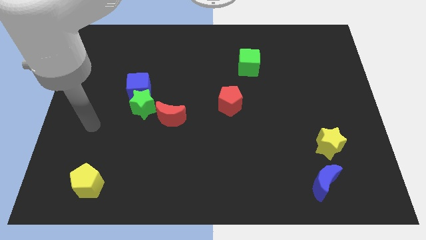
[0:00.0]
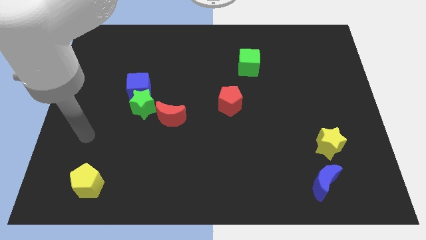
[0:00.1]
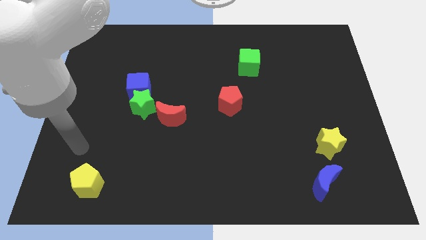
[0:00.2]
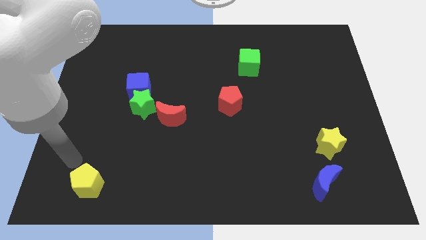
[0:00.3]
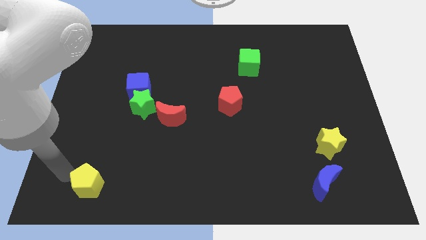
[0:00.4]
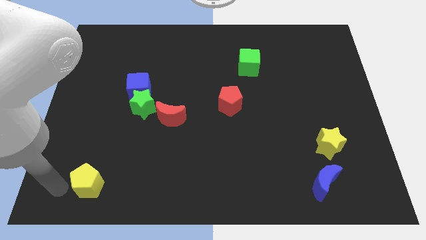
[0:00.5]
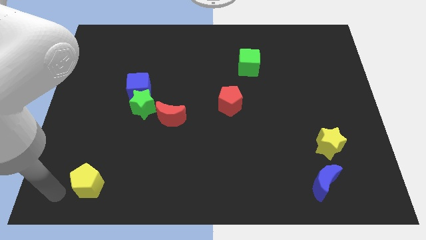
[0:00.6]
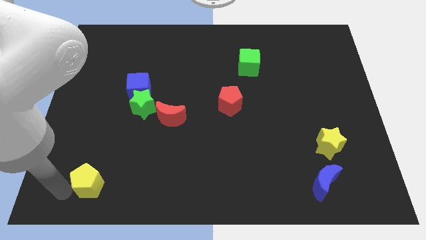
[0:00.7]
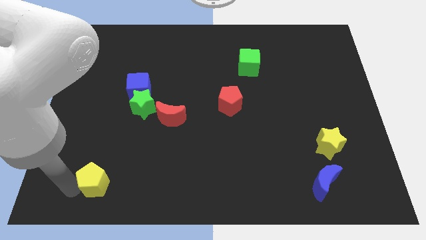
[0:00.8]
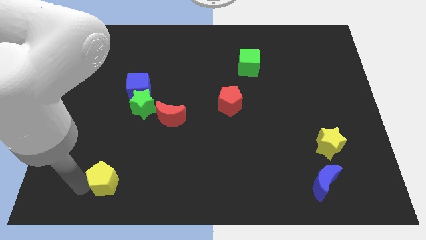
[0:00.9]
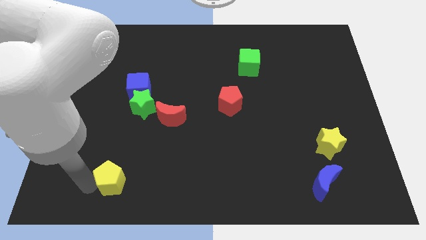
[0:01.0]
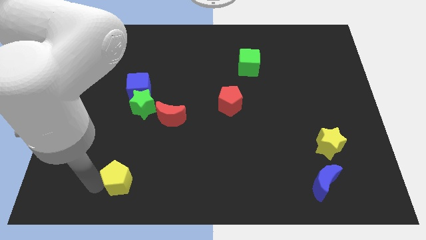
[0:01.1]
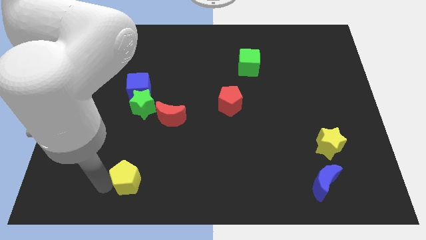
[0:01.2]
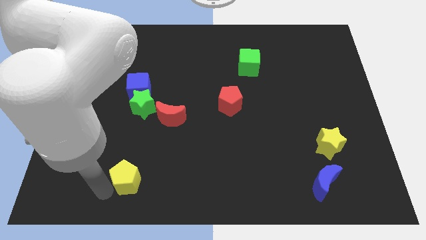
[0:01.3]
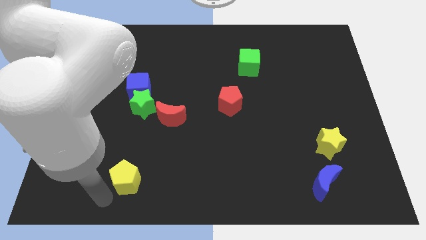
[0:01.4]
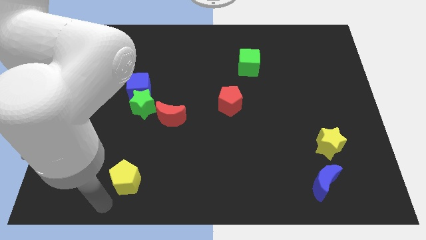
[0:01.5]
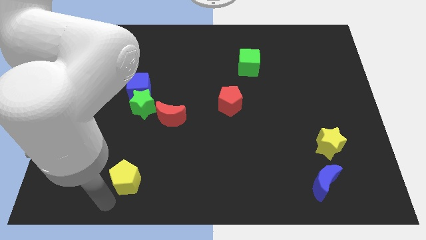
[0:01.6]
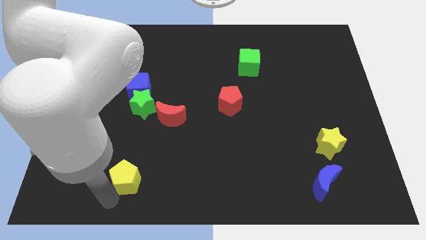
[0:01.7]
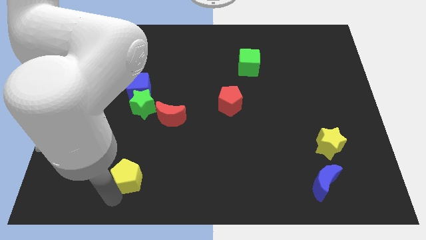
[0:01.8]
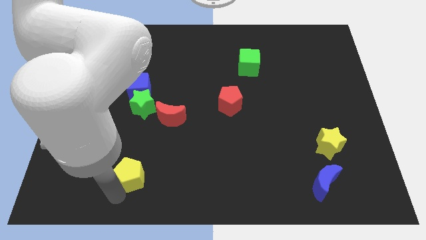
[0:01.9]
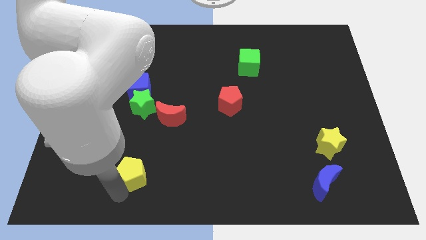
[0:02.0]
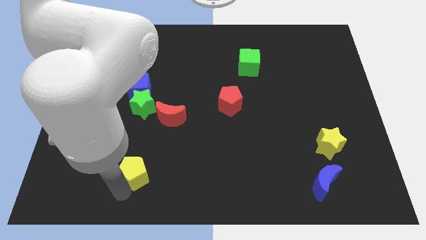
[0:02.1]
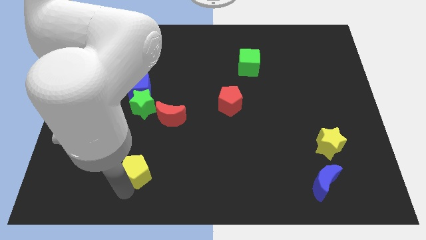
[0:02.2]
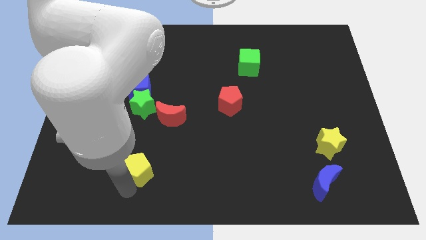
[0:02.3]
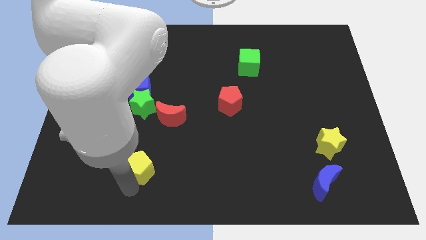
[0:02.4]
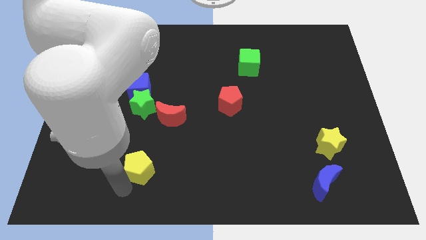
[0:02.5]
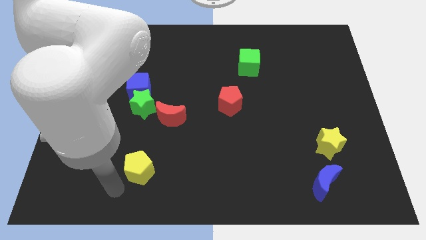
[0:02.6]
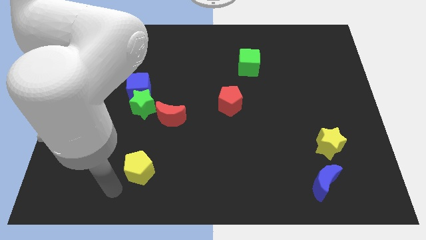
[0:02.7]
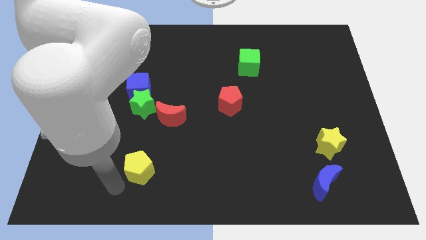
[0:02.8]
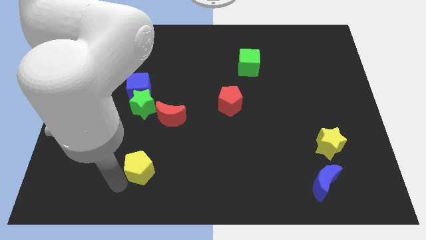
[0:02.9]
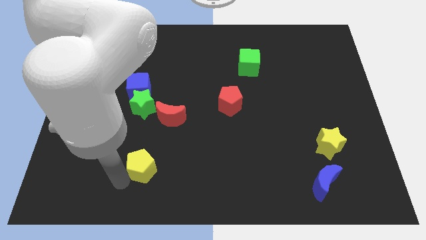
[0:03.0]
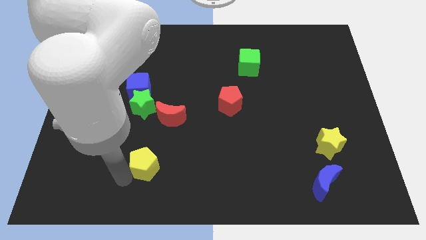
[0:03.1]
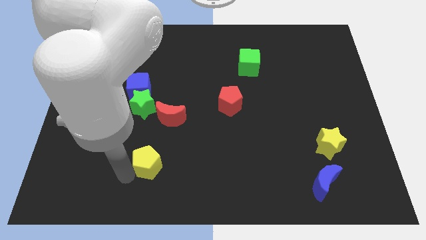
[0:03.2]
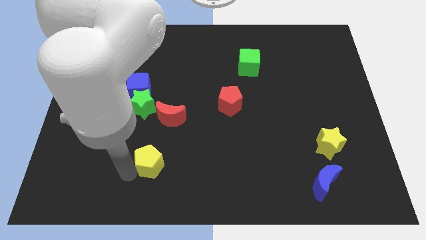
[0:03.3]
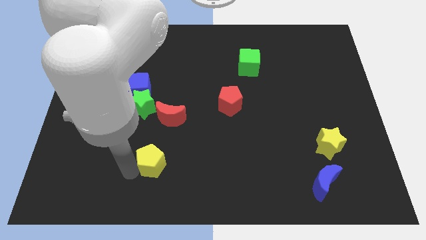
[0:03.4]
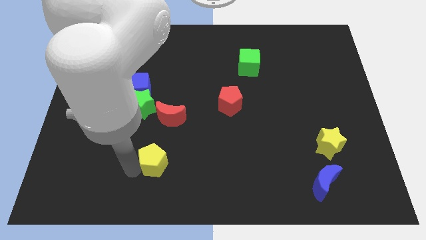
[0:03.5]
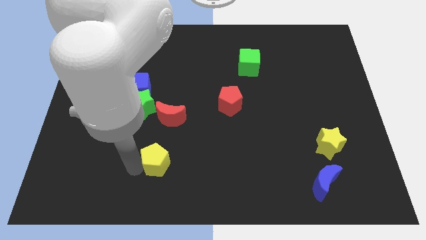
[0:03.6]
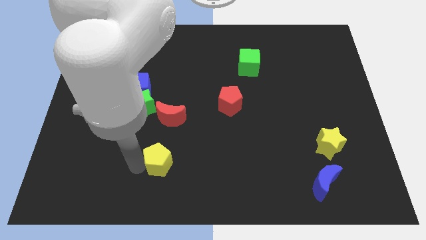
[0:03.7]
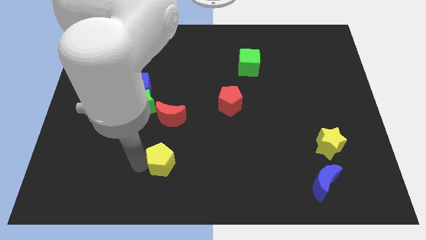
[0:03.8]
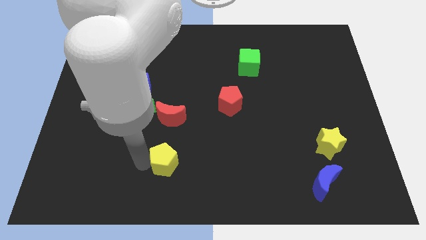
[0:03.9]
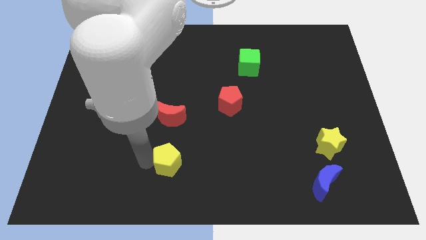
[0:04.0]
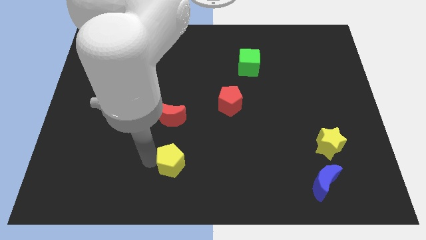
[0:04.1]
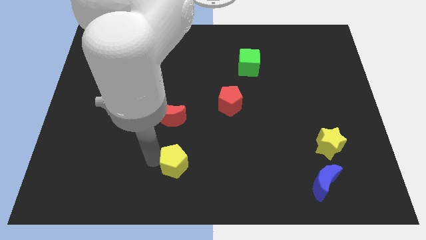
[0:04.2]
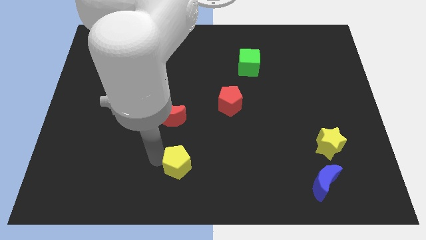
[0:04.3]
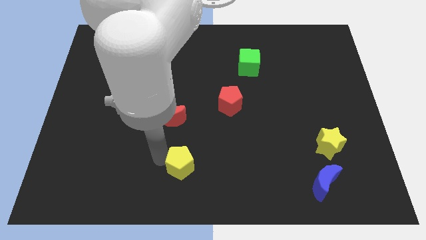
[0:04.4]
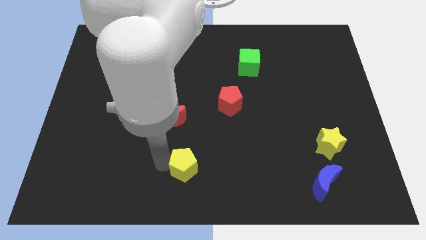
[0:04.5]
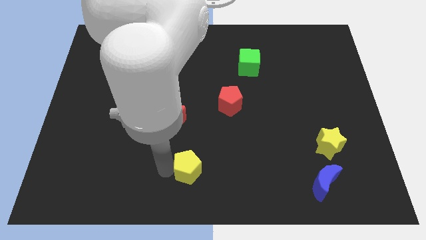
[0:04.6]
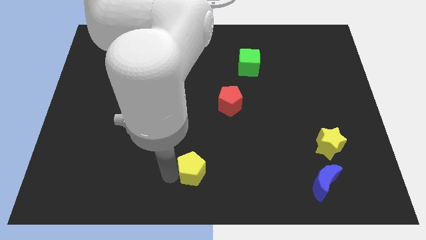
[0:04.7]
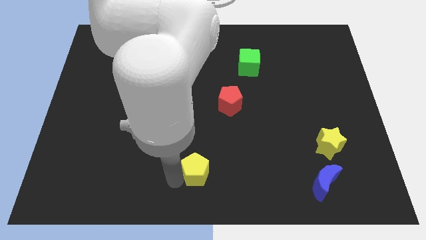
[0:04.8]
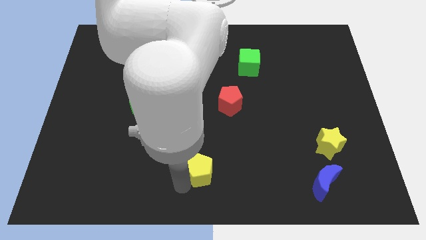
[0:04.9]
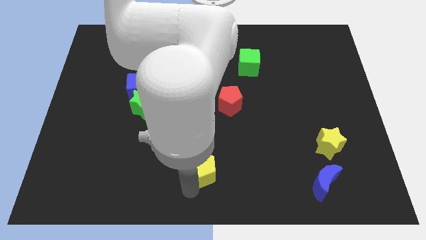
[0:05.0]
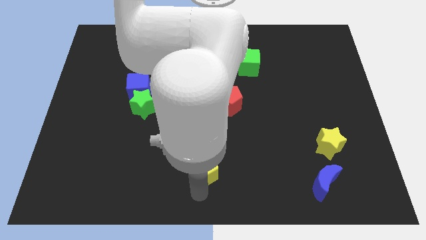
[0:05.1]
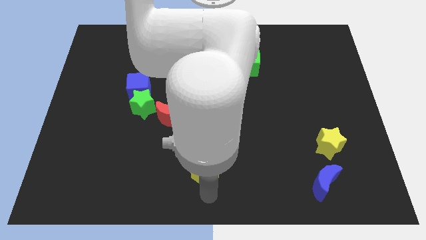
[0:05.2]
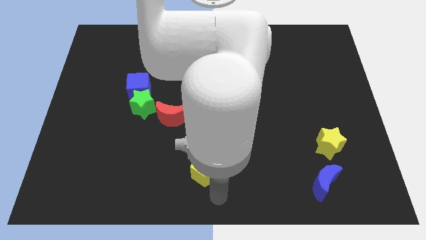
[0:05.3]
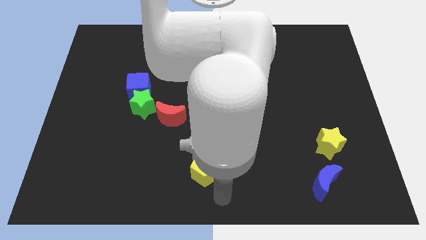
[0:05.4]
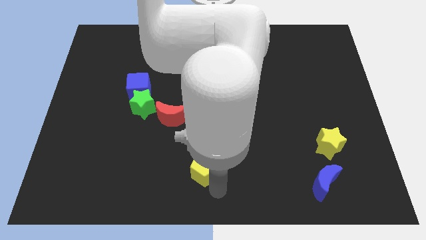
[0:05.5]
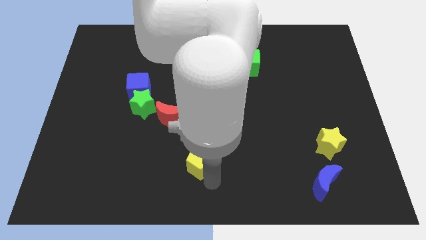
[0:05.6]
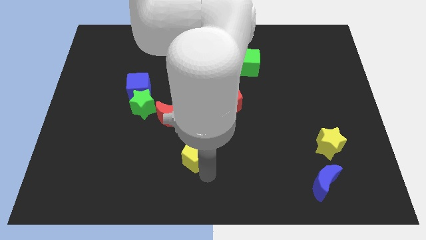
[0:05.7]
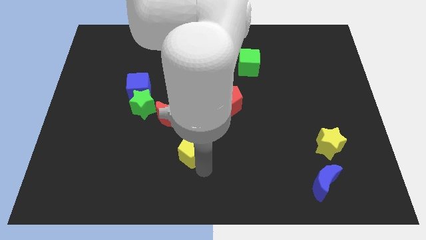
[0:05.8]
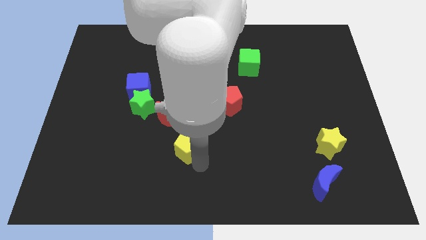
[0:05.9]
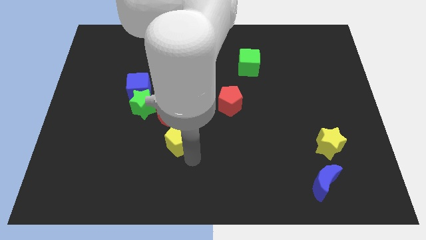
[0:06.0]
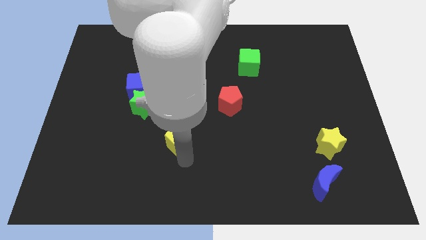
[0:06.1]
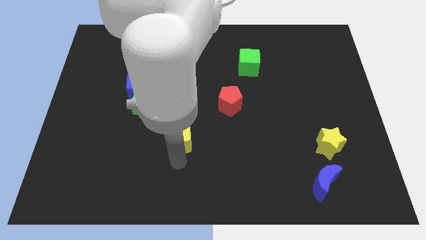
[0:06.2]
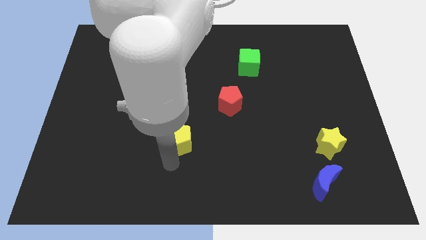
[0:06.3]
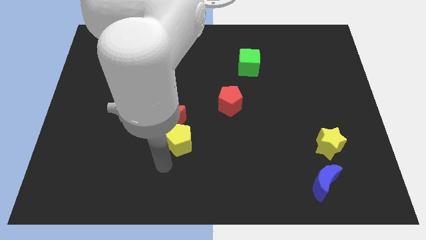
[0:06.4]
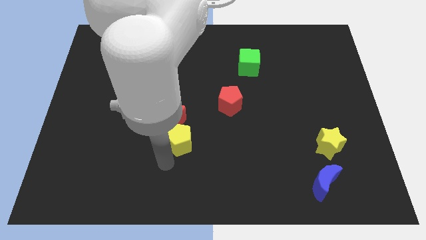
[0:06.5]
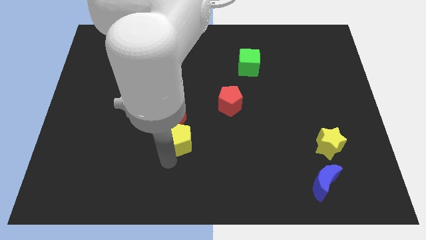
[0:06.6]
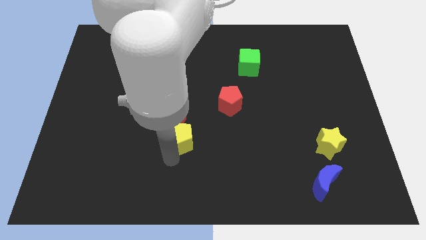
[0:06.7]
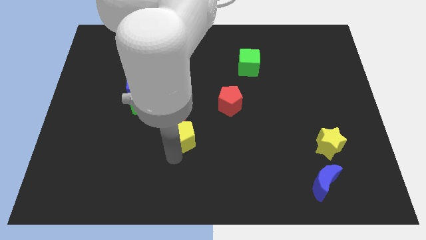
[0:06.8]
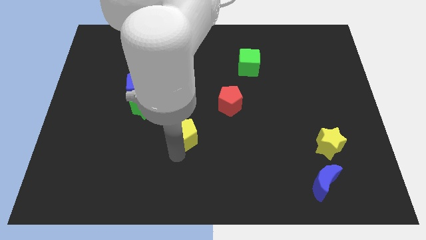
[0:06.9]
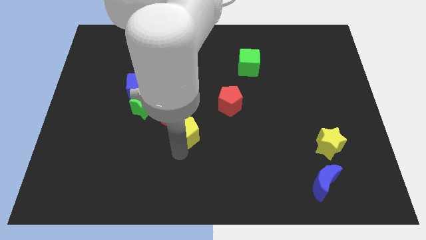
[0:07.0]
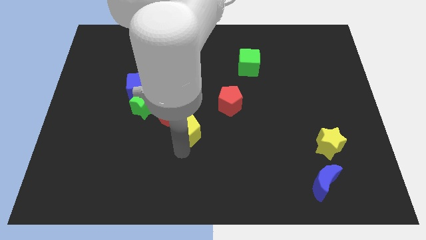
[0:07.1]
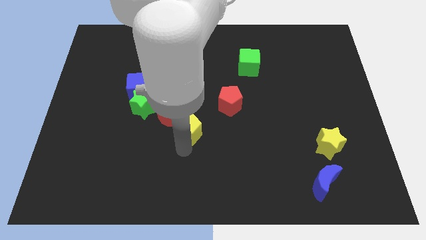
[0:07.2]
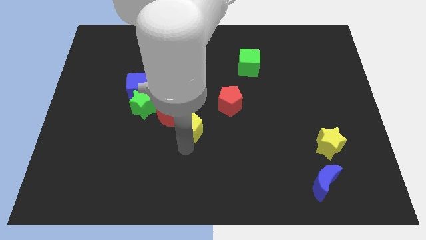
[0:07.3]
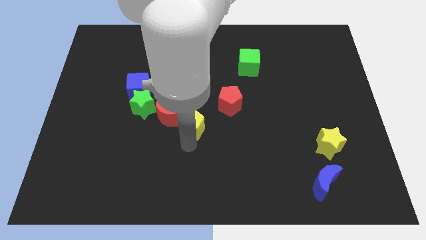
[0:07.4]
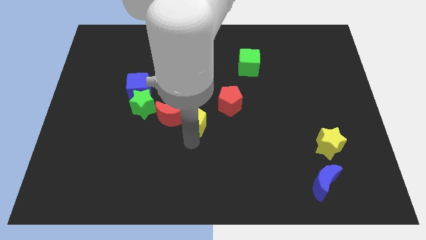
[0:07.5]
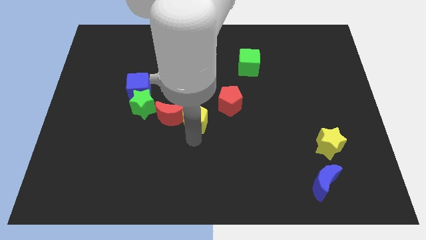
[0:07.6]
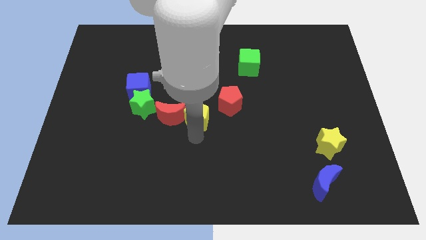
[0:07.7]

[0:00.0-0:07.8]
put the yellow pentagon to the top right side of the red moon
